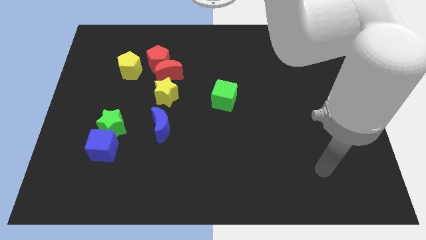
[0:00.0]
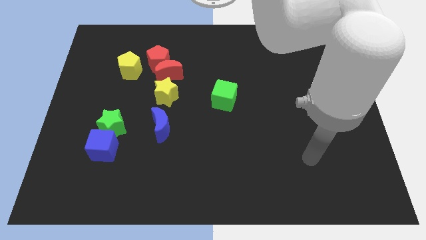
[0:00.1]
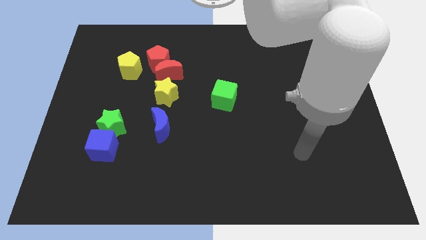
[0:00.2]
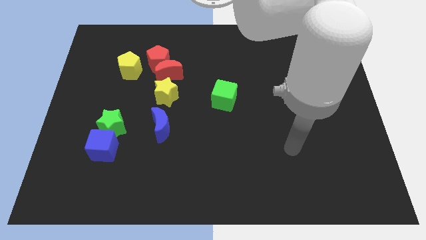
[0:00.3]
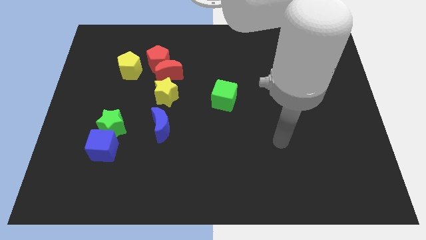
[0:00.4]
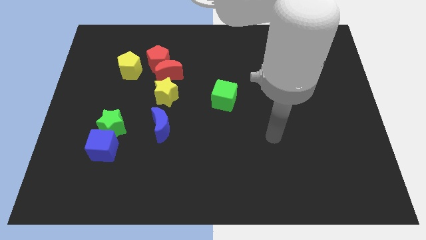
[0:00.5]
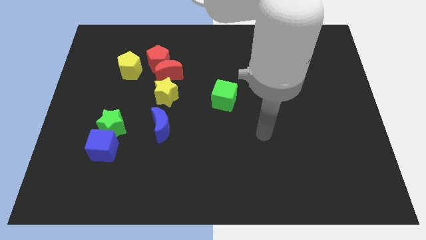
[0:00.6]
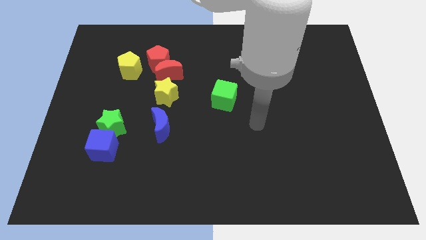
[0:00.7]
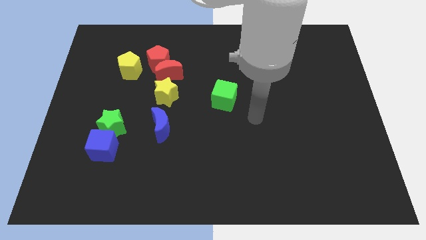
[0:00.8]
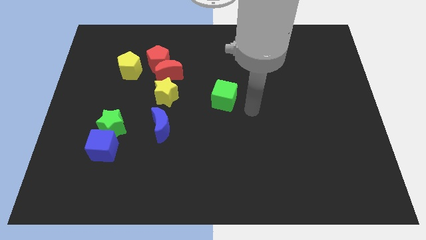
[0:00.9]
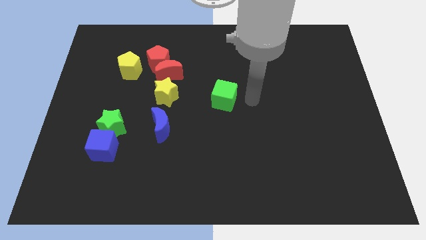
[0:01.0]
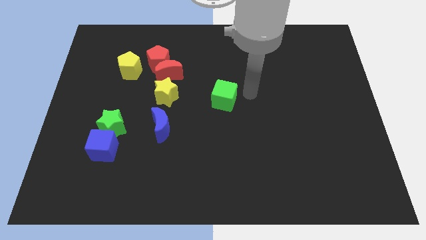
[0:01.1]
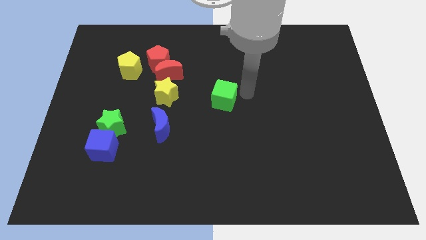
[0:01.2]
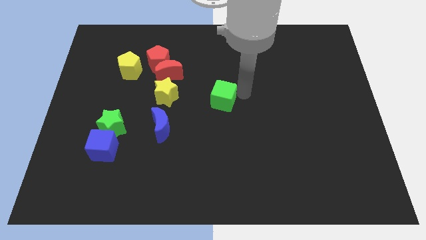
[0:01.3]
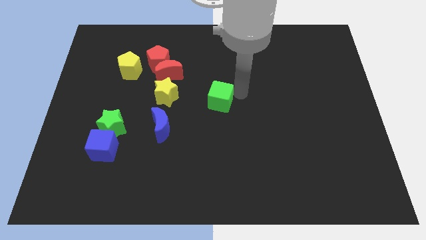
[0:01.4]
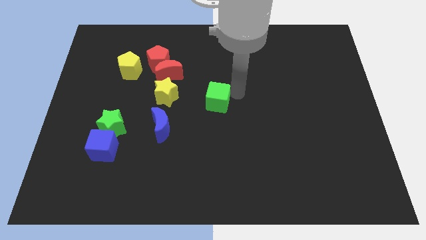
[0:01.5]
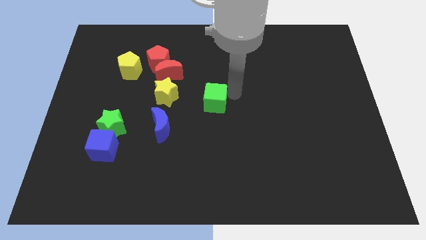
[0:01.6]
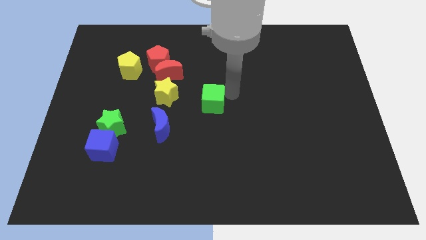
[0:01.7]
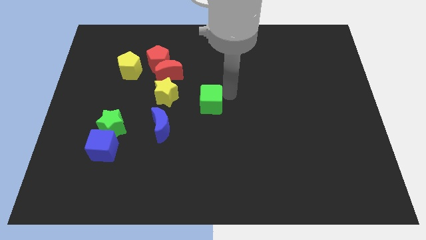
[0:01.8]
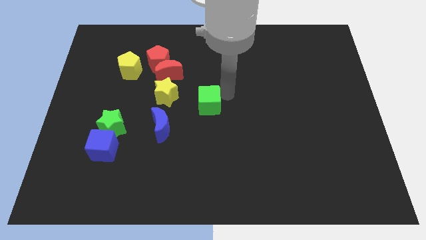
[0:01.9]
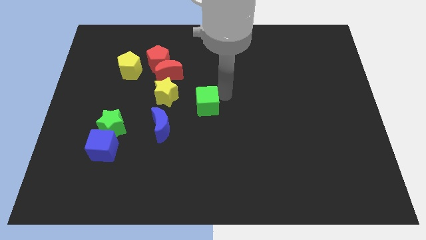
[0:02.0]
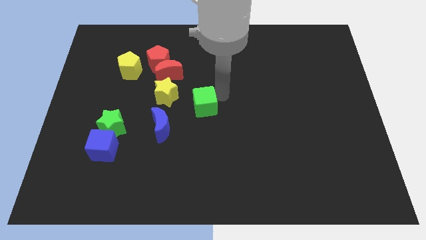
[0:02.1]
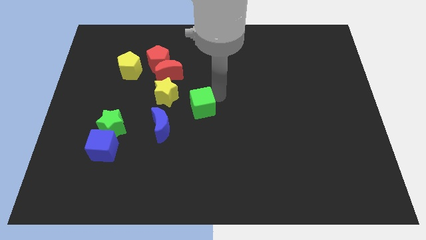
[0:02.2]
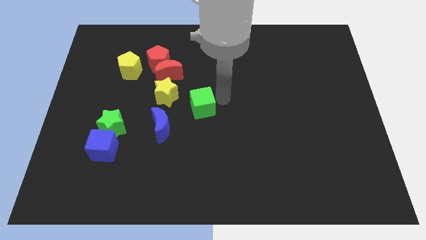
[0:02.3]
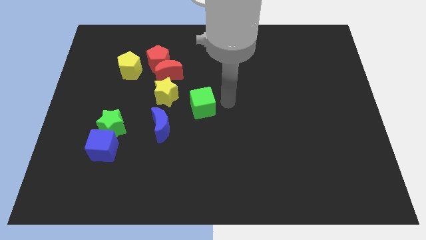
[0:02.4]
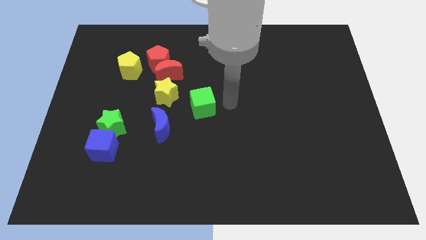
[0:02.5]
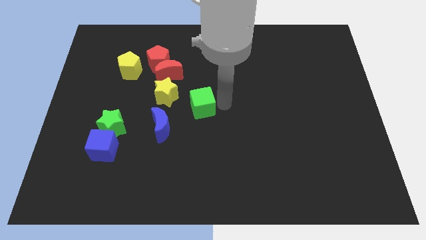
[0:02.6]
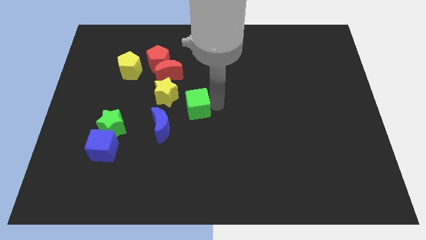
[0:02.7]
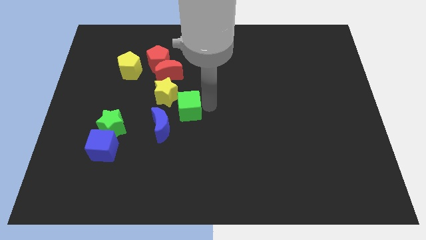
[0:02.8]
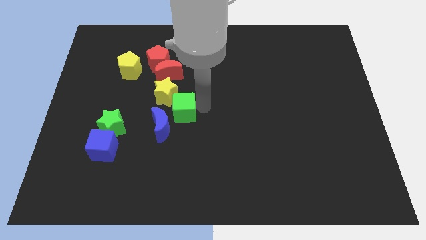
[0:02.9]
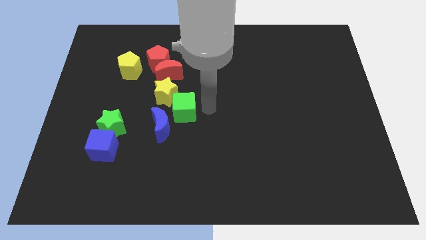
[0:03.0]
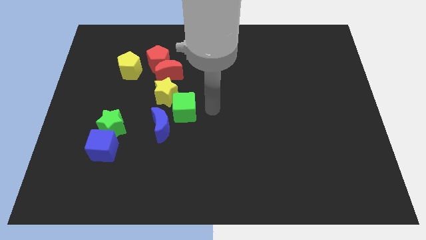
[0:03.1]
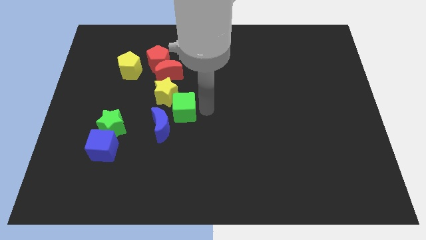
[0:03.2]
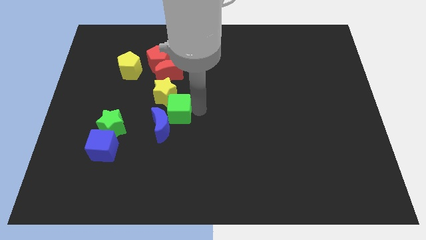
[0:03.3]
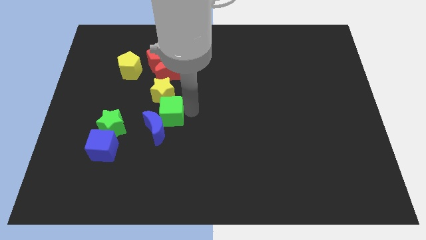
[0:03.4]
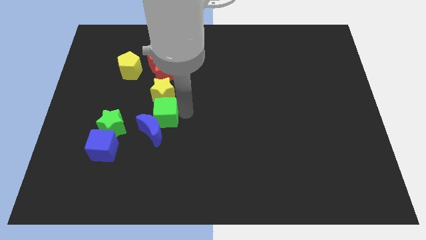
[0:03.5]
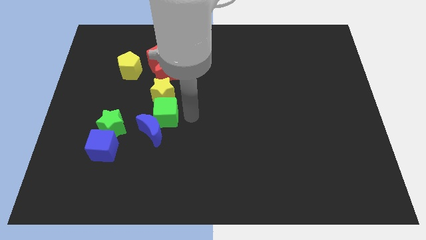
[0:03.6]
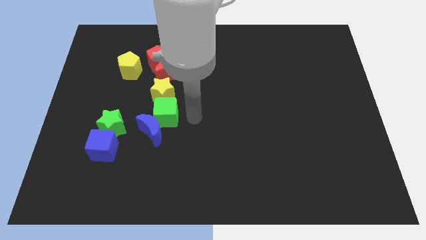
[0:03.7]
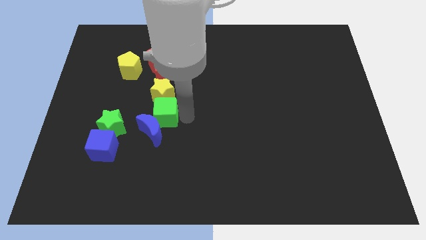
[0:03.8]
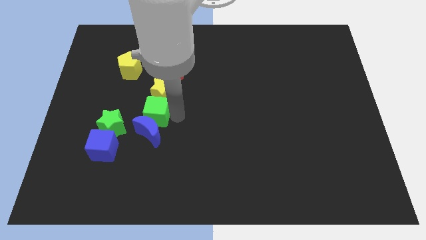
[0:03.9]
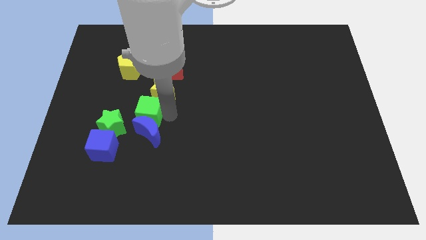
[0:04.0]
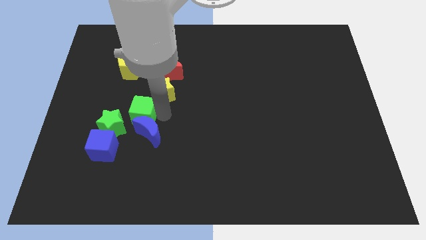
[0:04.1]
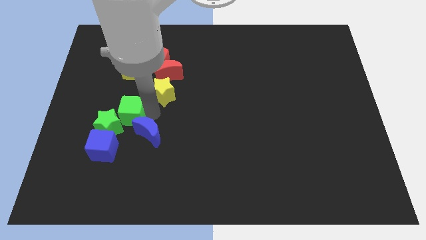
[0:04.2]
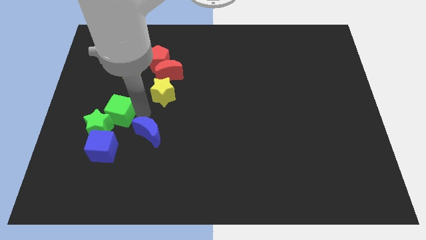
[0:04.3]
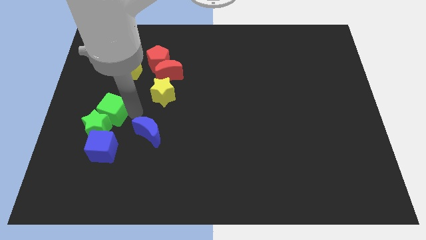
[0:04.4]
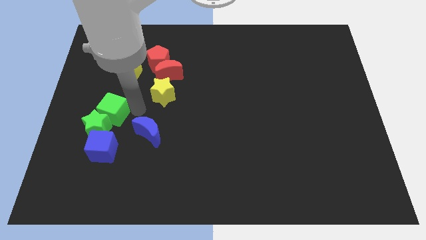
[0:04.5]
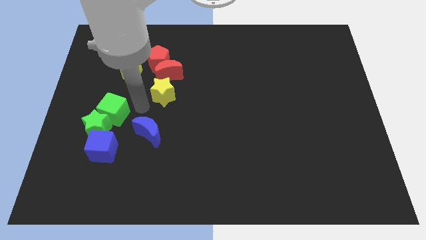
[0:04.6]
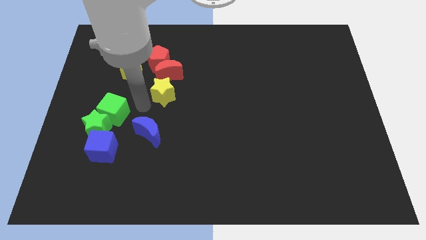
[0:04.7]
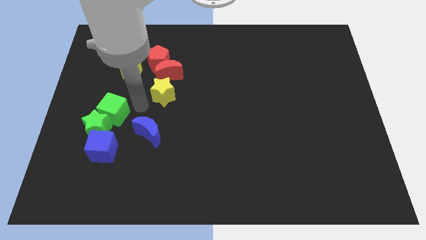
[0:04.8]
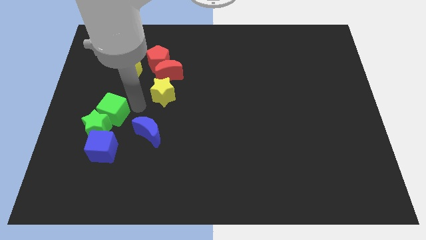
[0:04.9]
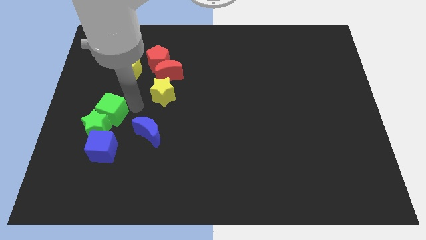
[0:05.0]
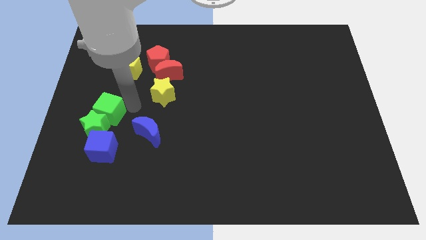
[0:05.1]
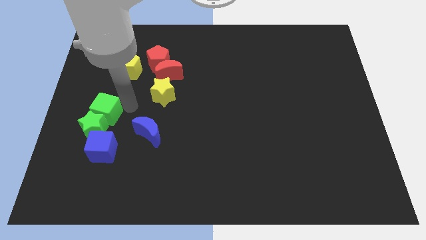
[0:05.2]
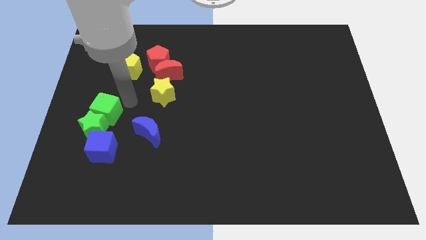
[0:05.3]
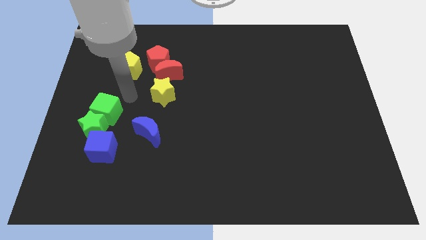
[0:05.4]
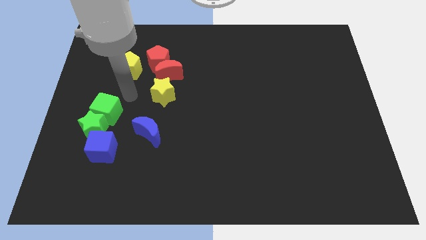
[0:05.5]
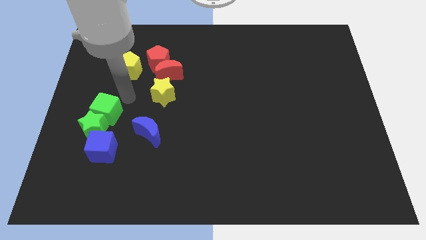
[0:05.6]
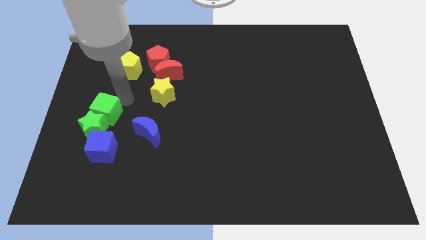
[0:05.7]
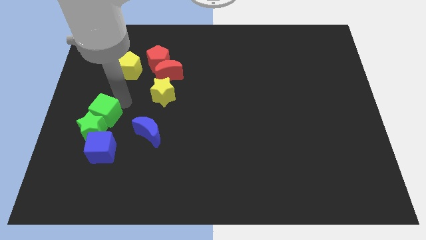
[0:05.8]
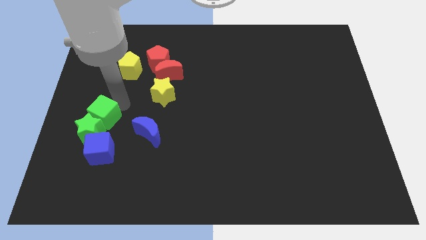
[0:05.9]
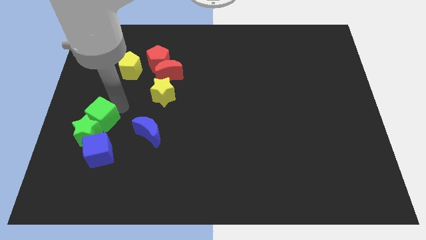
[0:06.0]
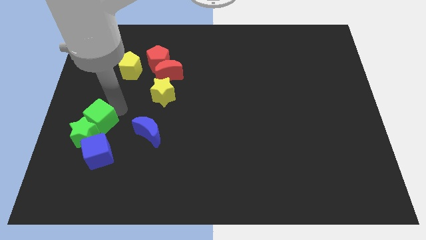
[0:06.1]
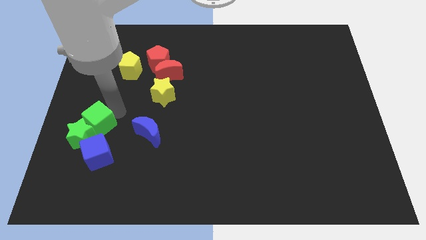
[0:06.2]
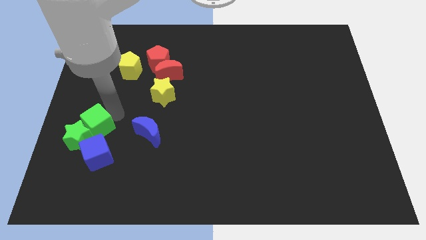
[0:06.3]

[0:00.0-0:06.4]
move the green cube to the top left of the blue cube

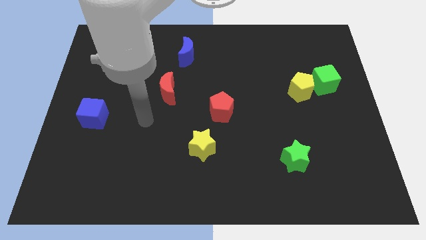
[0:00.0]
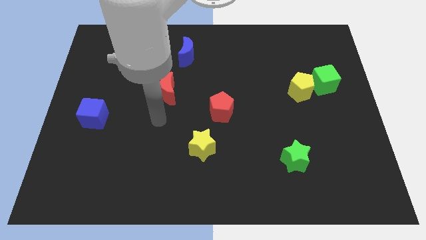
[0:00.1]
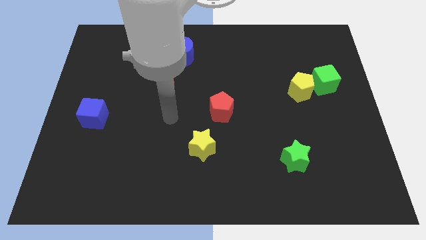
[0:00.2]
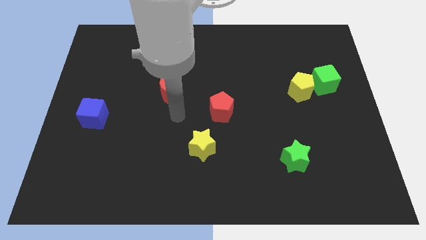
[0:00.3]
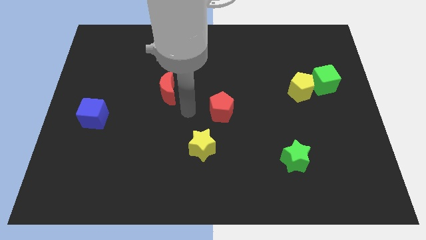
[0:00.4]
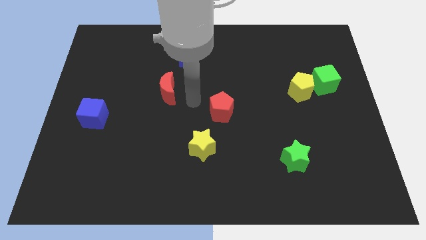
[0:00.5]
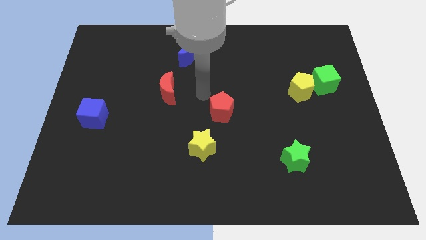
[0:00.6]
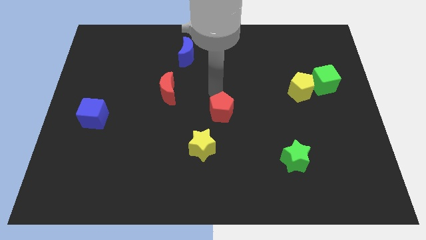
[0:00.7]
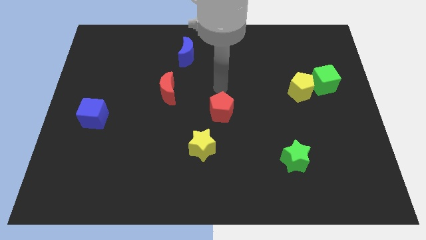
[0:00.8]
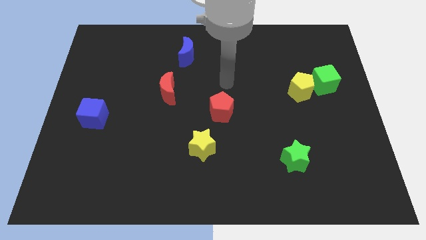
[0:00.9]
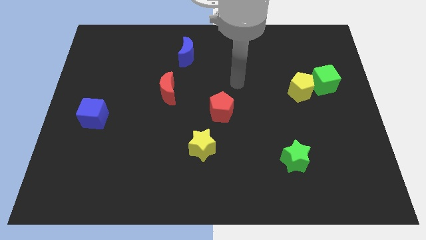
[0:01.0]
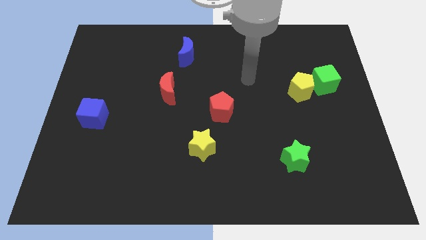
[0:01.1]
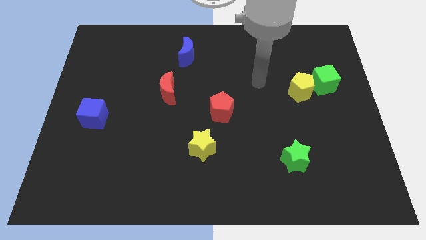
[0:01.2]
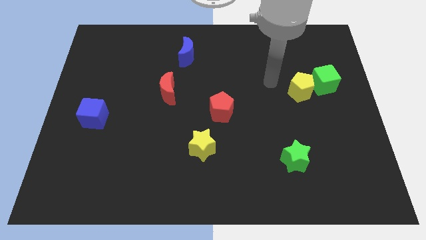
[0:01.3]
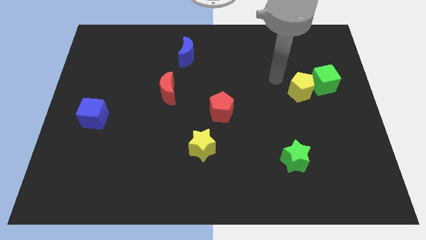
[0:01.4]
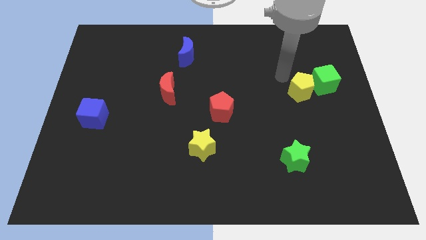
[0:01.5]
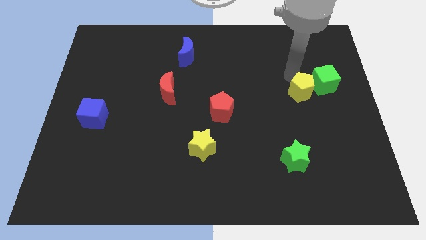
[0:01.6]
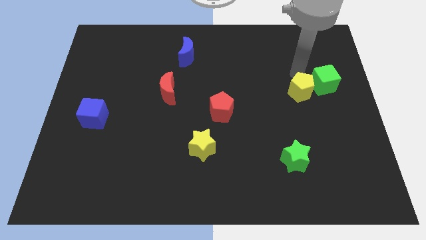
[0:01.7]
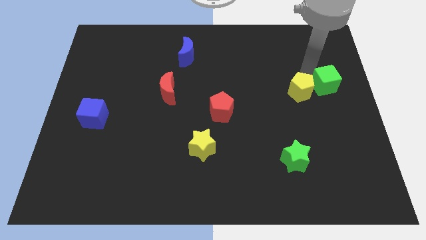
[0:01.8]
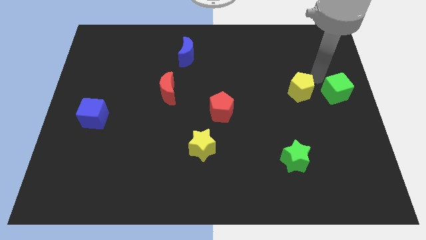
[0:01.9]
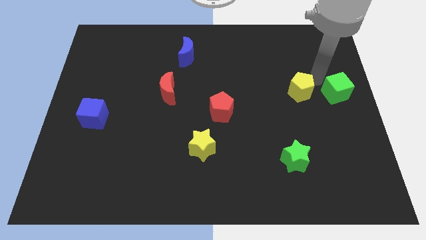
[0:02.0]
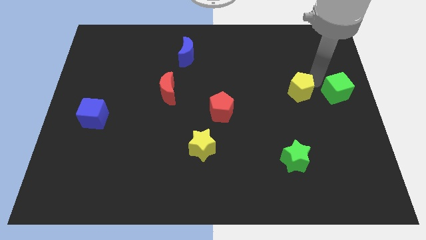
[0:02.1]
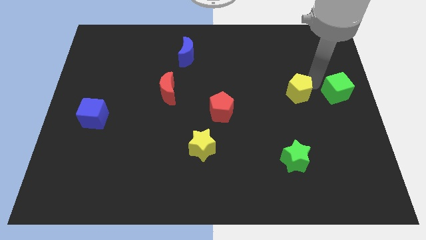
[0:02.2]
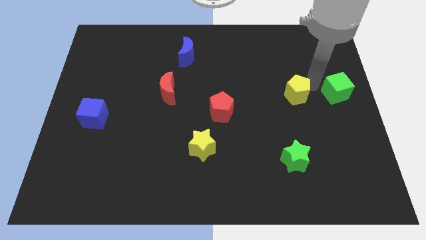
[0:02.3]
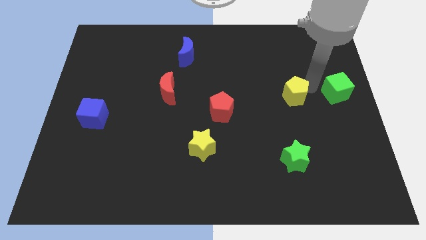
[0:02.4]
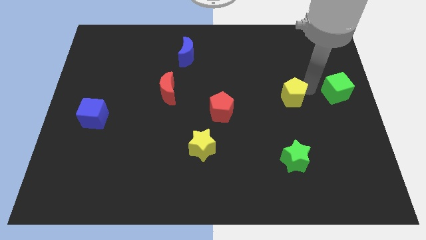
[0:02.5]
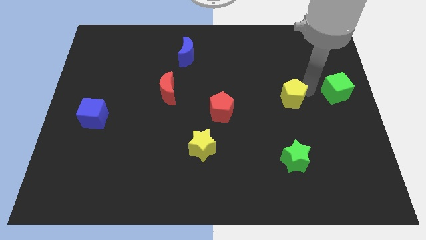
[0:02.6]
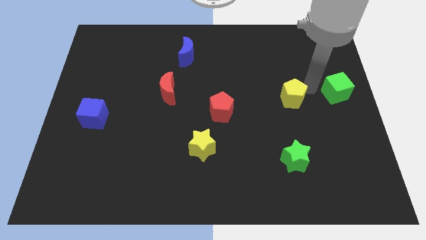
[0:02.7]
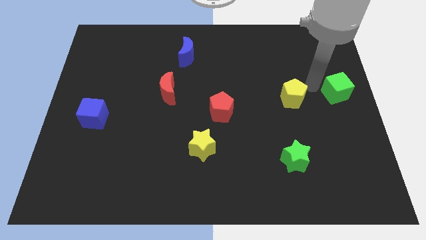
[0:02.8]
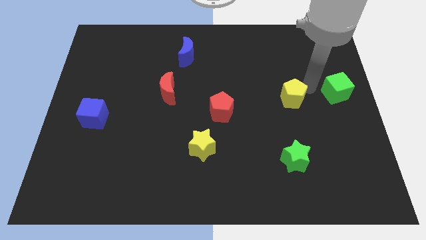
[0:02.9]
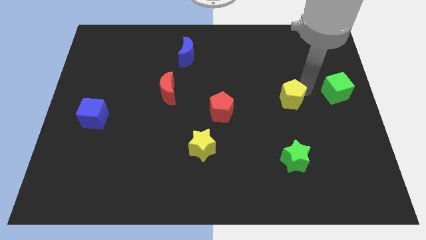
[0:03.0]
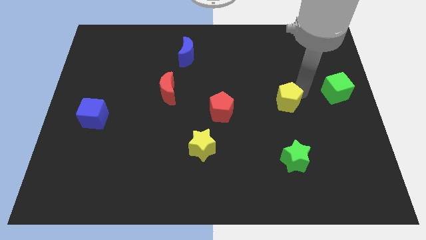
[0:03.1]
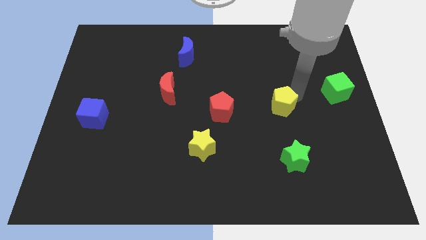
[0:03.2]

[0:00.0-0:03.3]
push the yellow pentagon just right of the red pentagon
